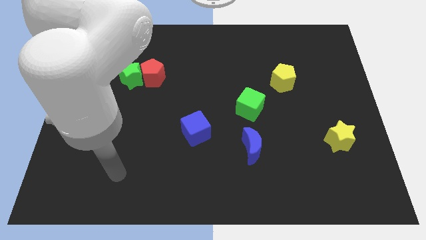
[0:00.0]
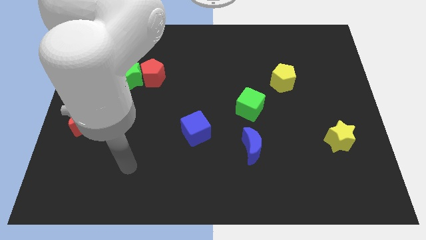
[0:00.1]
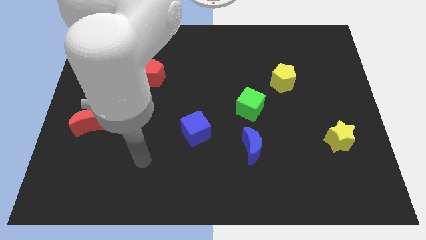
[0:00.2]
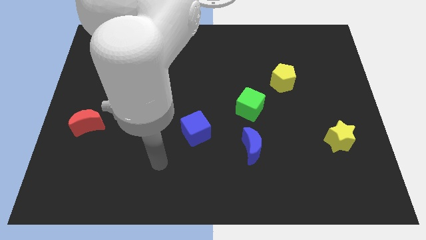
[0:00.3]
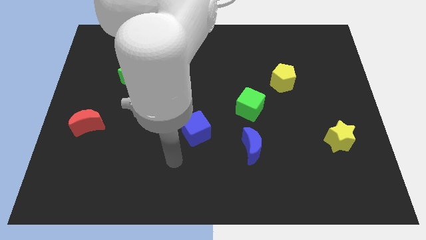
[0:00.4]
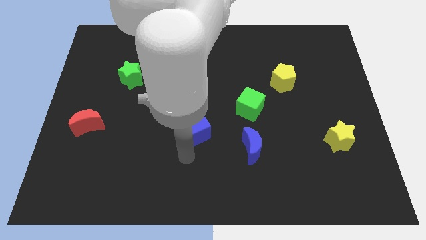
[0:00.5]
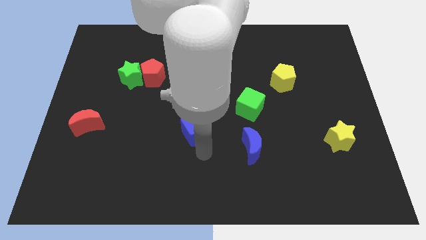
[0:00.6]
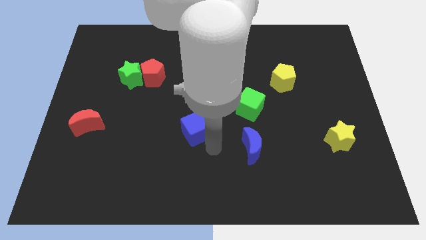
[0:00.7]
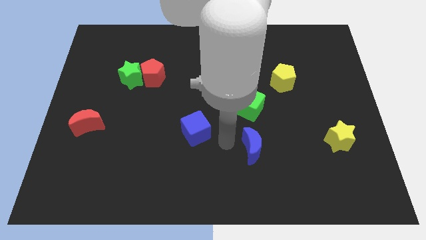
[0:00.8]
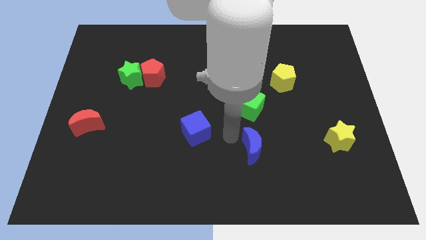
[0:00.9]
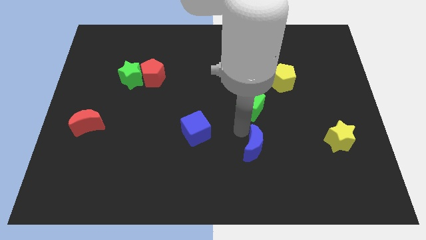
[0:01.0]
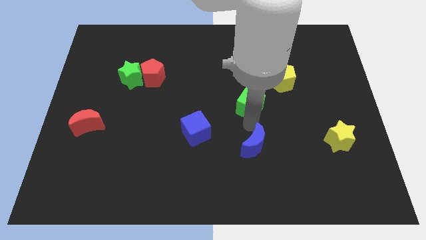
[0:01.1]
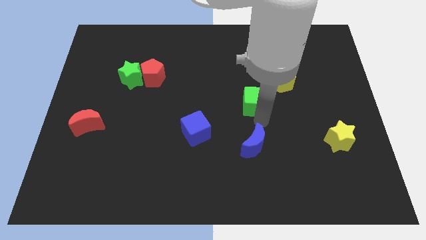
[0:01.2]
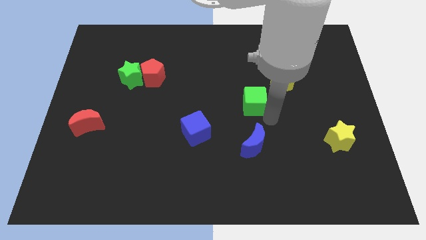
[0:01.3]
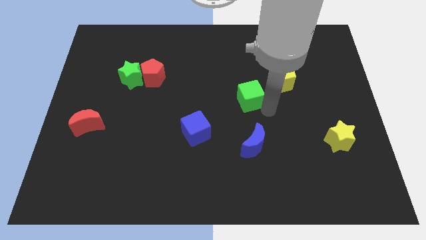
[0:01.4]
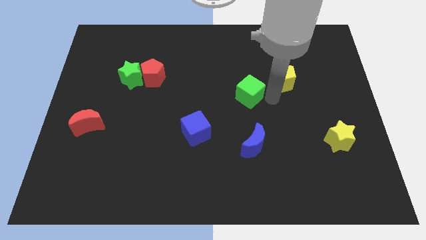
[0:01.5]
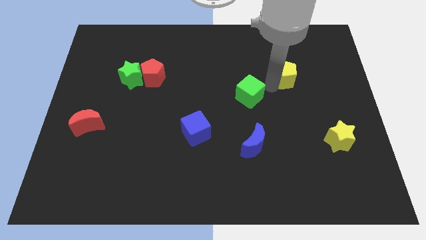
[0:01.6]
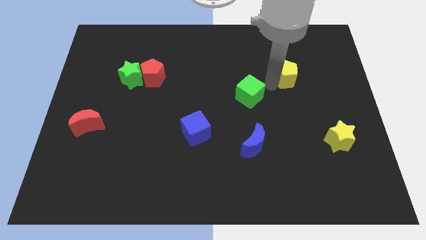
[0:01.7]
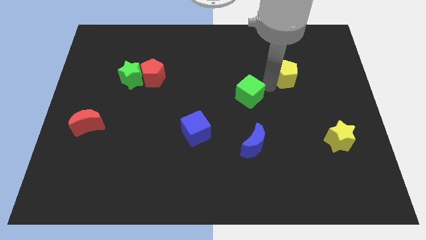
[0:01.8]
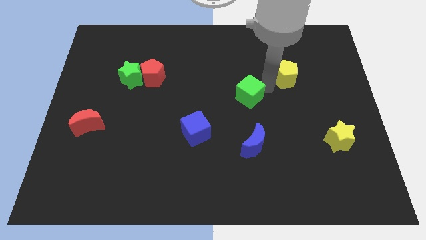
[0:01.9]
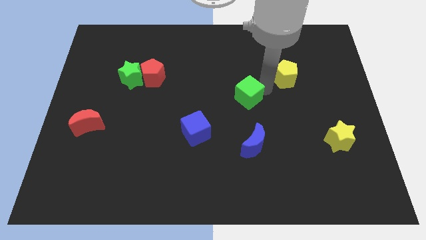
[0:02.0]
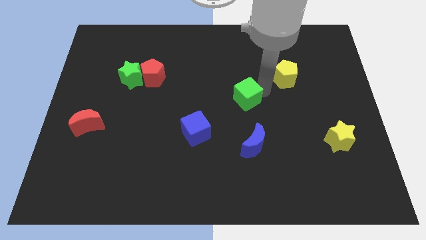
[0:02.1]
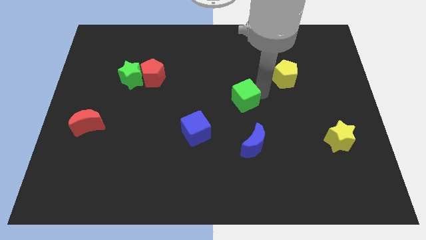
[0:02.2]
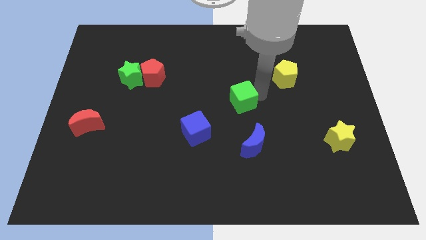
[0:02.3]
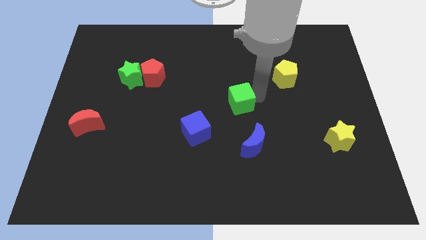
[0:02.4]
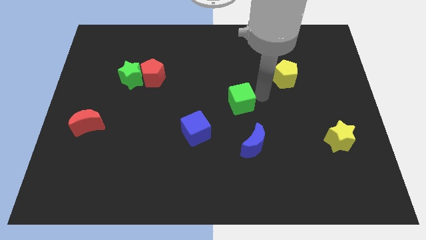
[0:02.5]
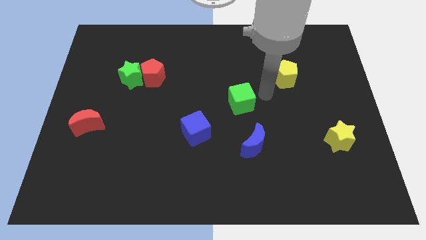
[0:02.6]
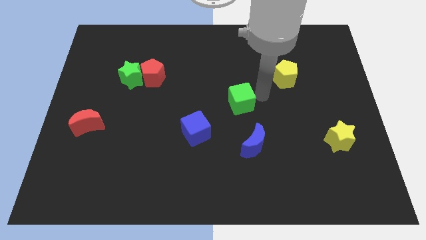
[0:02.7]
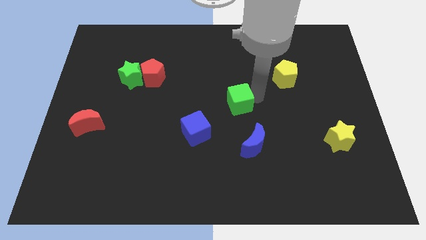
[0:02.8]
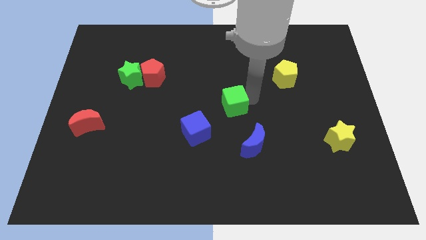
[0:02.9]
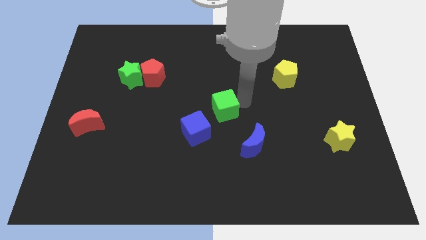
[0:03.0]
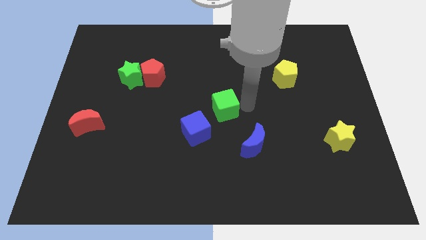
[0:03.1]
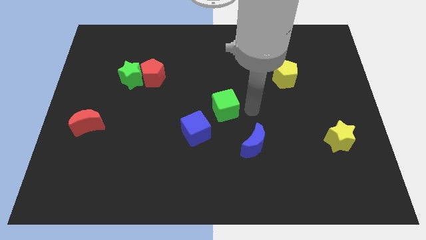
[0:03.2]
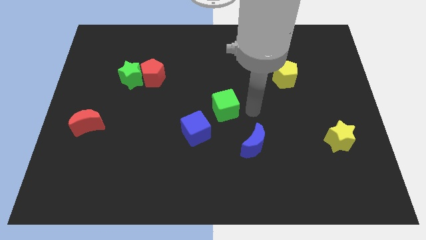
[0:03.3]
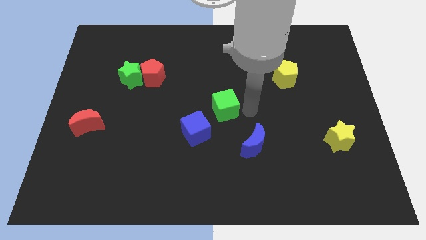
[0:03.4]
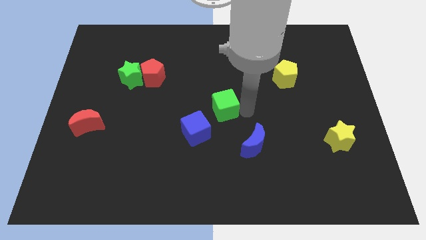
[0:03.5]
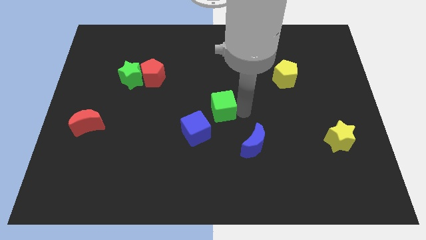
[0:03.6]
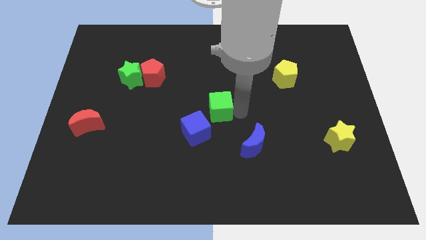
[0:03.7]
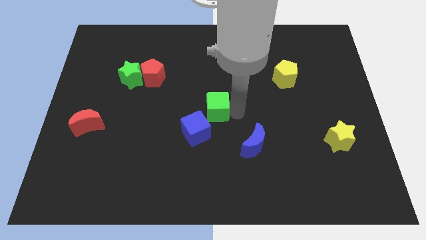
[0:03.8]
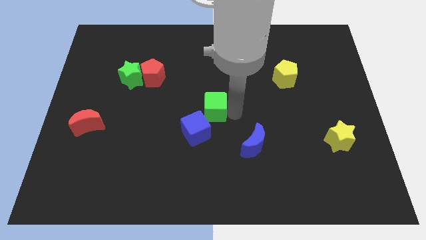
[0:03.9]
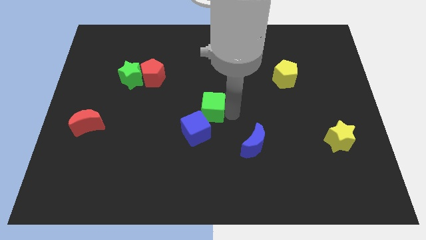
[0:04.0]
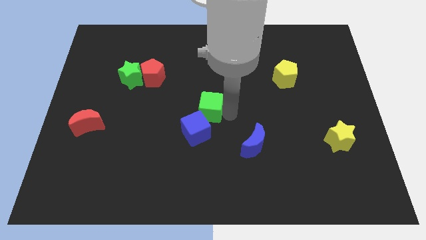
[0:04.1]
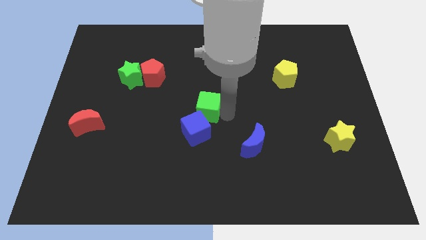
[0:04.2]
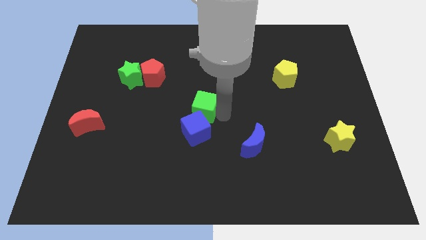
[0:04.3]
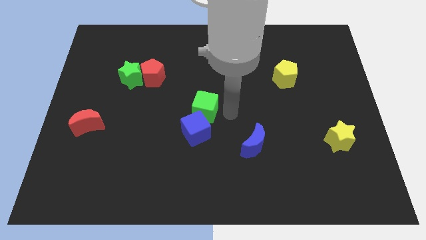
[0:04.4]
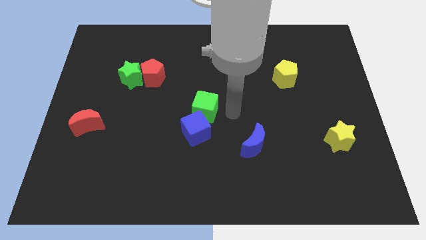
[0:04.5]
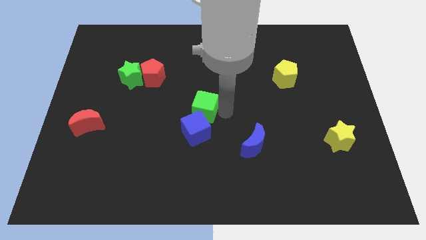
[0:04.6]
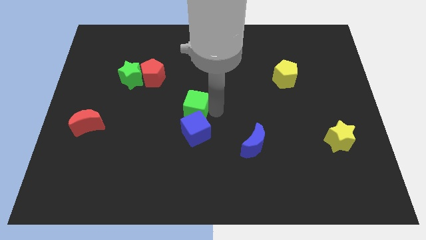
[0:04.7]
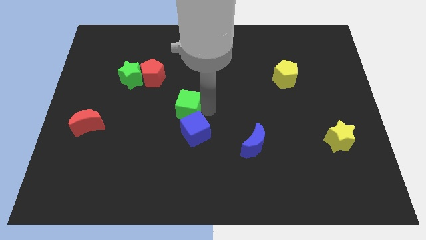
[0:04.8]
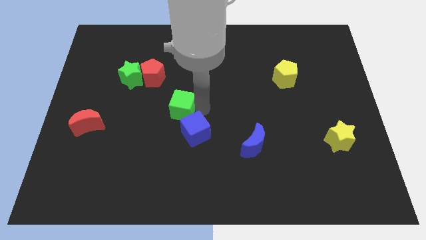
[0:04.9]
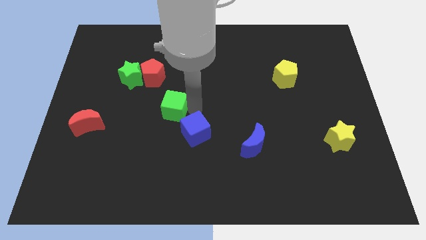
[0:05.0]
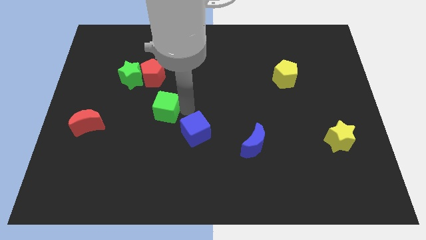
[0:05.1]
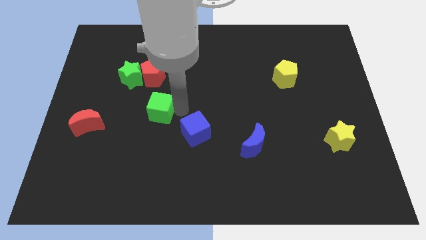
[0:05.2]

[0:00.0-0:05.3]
push the green cube to the left

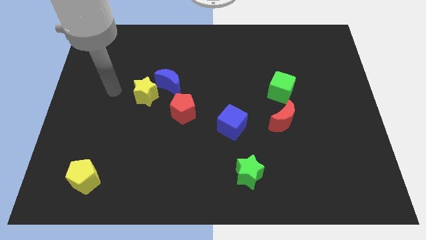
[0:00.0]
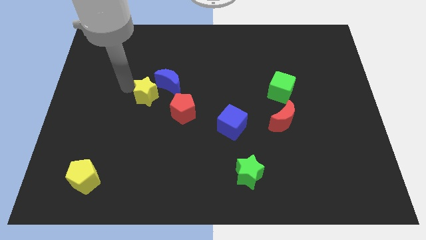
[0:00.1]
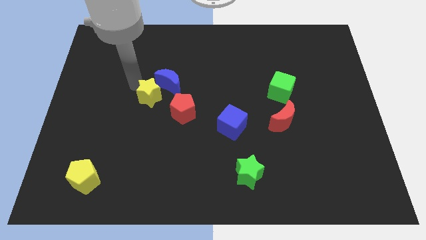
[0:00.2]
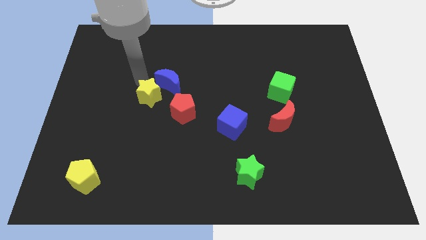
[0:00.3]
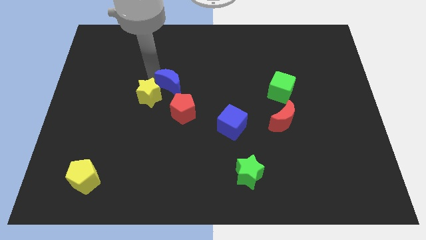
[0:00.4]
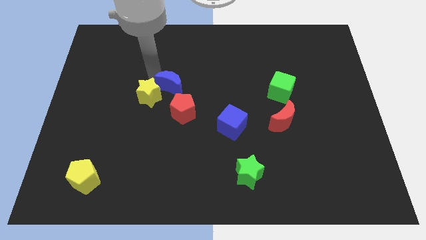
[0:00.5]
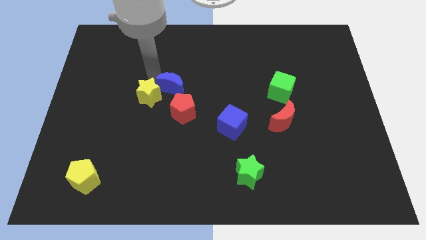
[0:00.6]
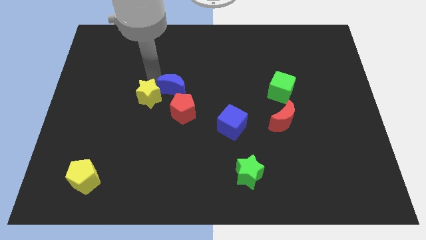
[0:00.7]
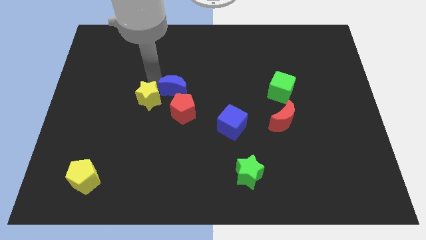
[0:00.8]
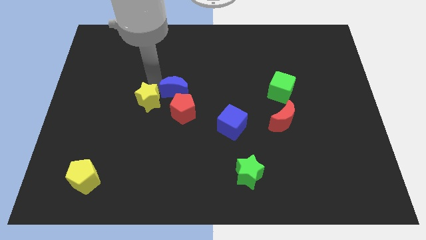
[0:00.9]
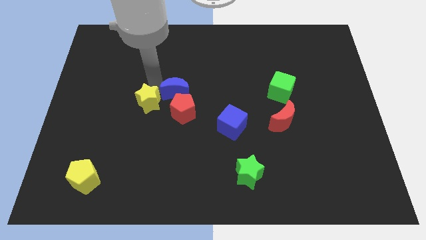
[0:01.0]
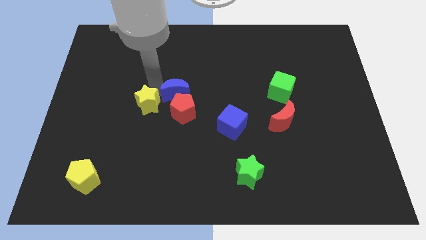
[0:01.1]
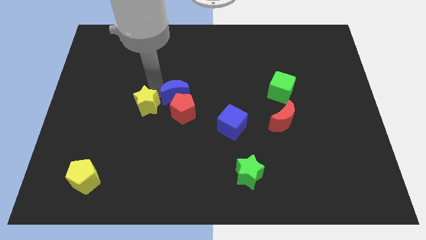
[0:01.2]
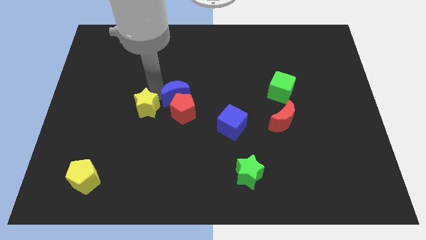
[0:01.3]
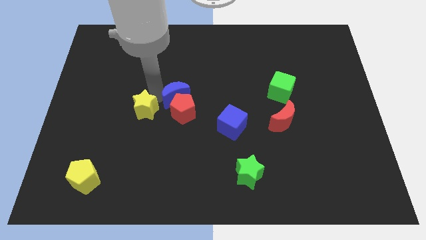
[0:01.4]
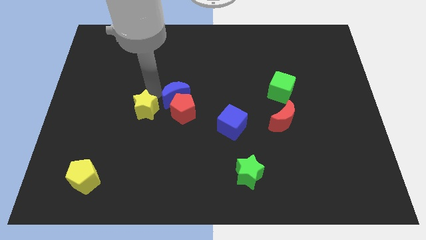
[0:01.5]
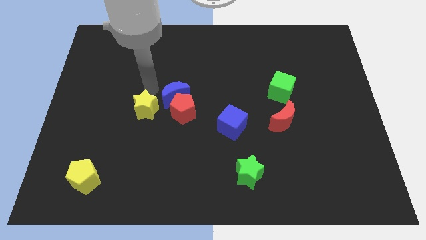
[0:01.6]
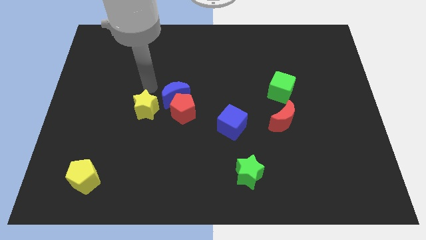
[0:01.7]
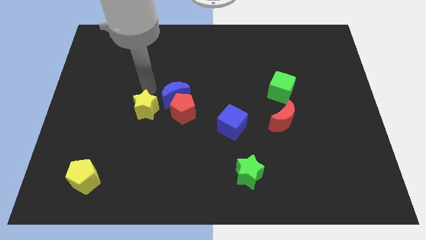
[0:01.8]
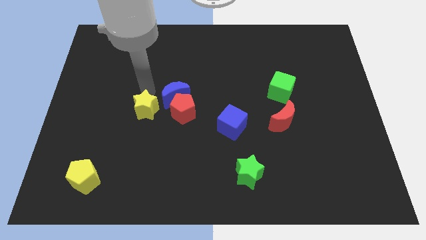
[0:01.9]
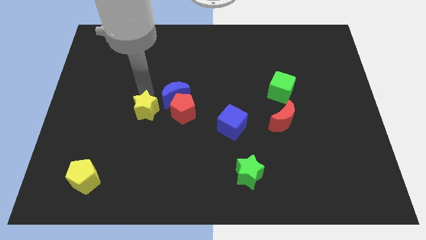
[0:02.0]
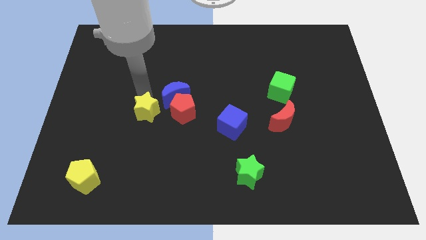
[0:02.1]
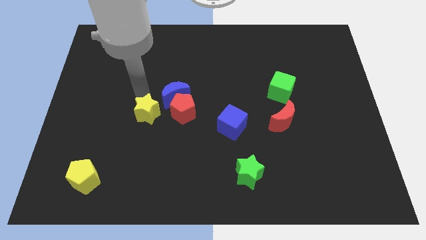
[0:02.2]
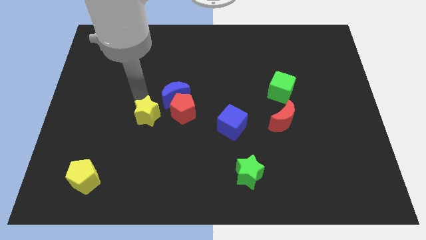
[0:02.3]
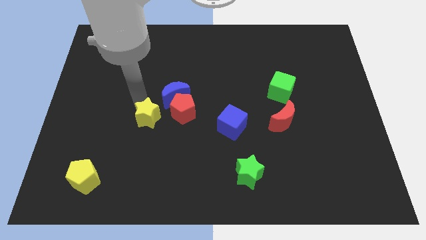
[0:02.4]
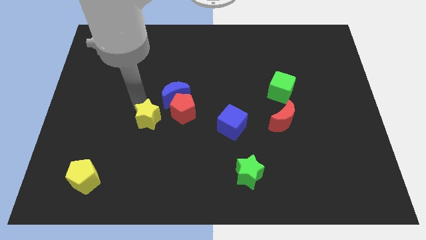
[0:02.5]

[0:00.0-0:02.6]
slightly push the yellow star down
